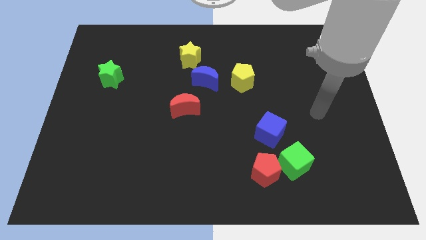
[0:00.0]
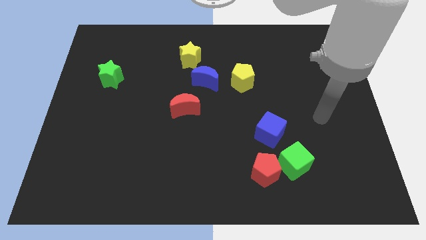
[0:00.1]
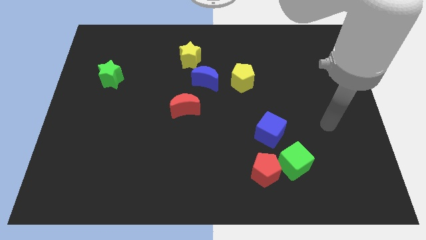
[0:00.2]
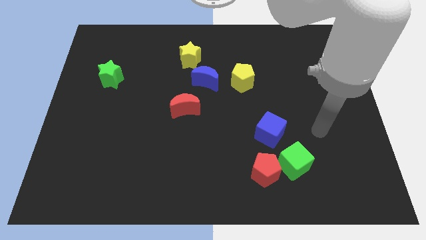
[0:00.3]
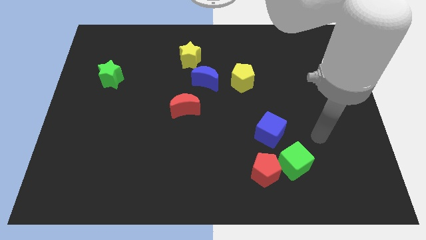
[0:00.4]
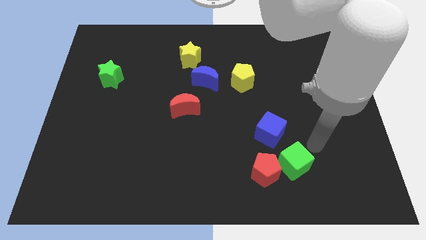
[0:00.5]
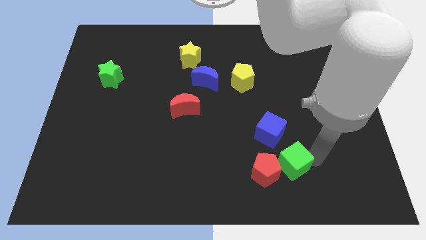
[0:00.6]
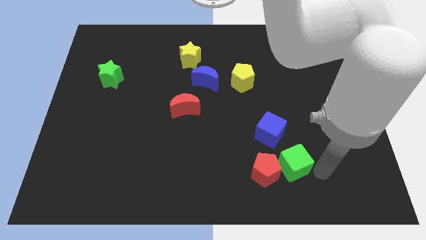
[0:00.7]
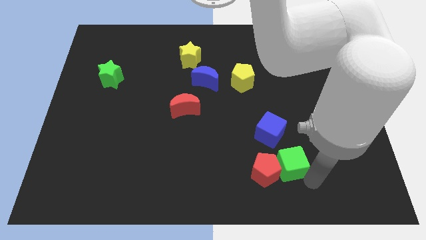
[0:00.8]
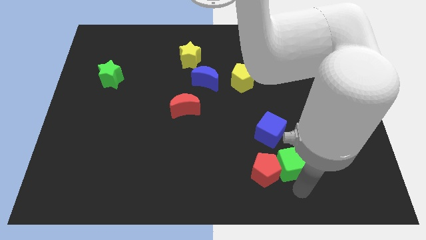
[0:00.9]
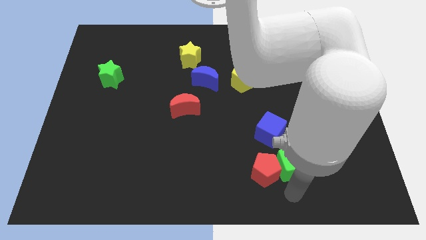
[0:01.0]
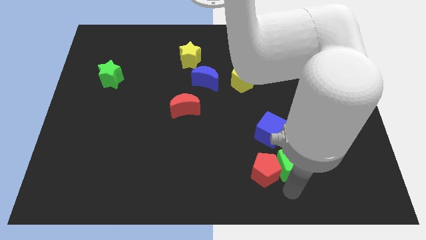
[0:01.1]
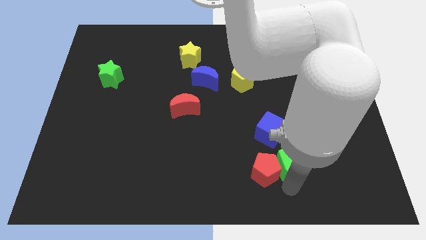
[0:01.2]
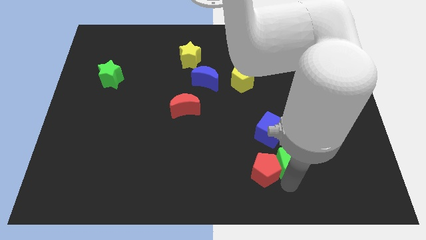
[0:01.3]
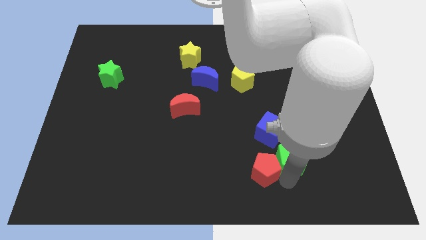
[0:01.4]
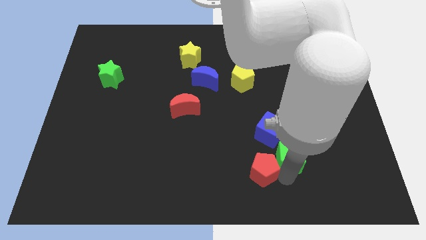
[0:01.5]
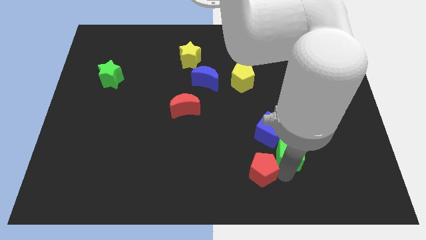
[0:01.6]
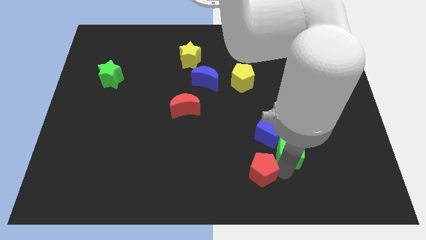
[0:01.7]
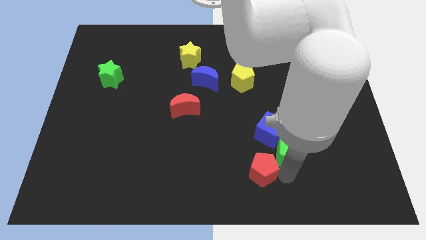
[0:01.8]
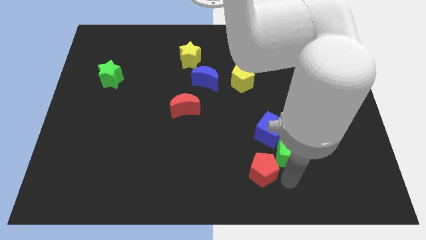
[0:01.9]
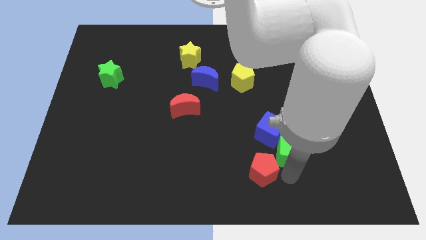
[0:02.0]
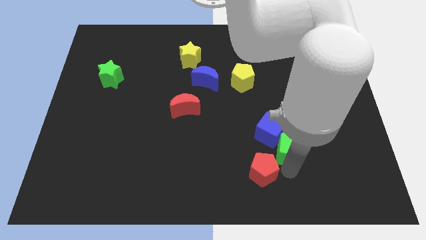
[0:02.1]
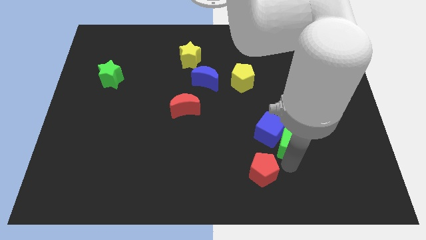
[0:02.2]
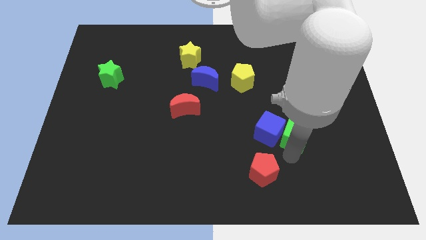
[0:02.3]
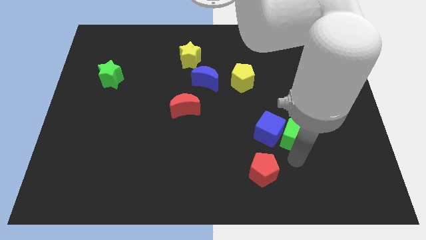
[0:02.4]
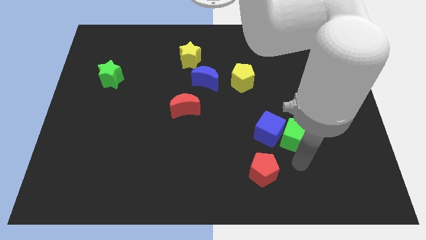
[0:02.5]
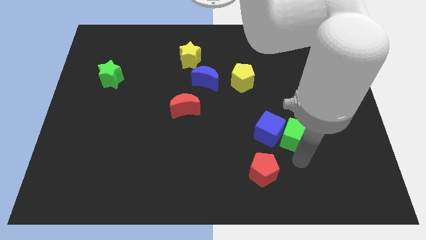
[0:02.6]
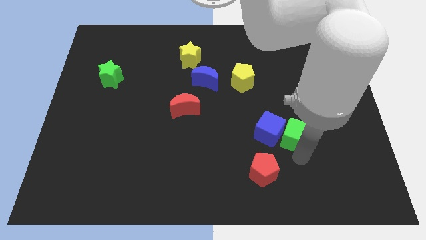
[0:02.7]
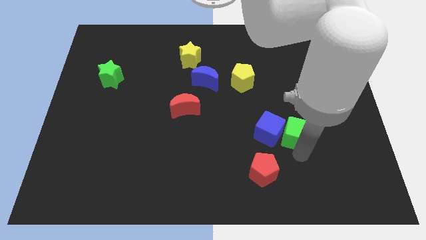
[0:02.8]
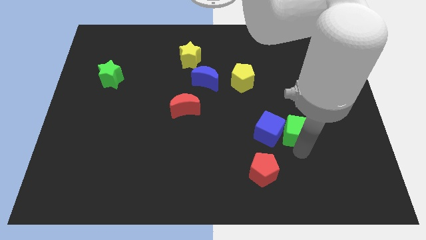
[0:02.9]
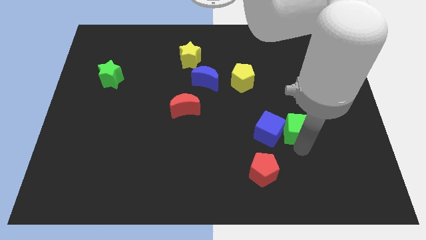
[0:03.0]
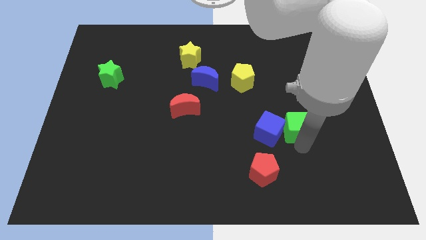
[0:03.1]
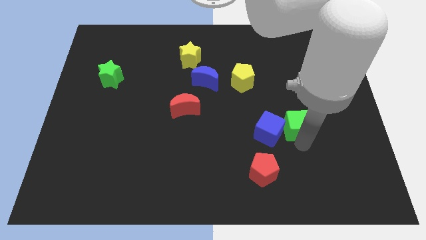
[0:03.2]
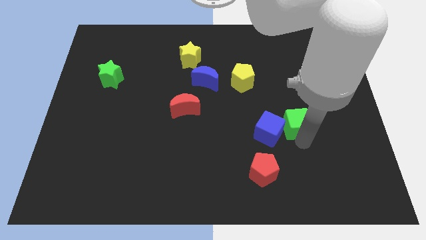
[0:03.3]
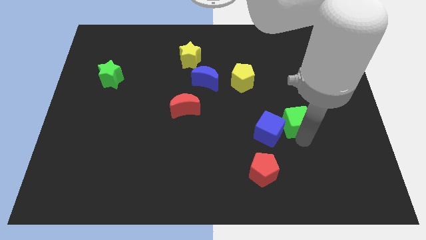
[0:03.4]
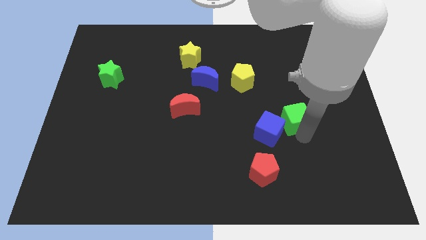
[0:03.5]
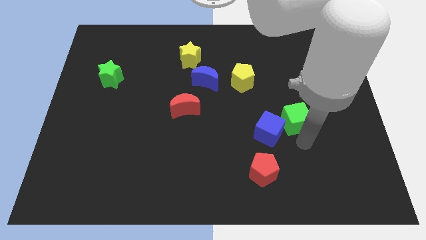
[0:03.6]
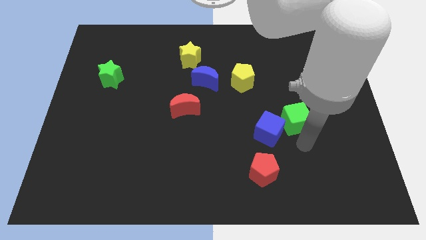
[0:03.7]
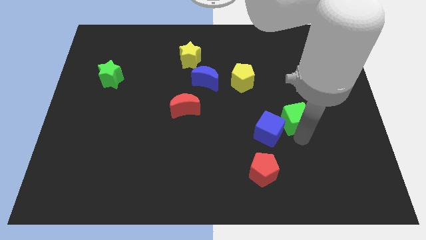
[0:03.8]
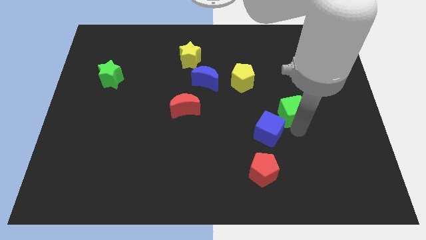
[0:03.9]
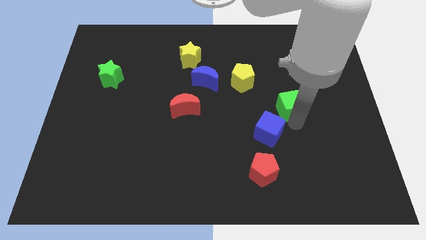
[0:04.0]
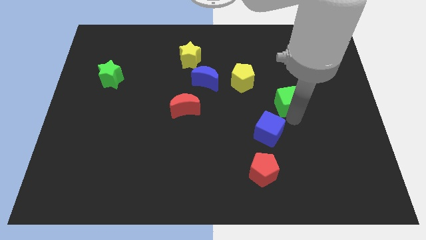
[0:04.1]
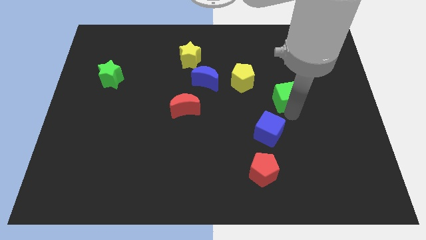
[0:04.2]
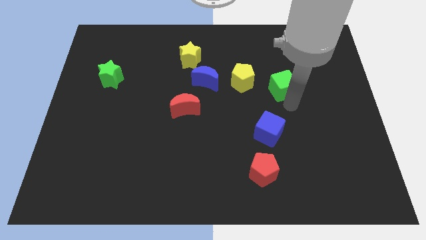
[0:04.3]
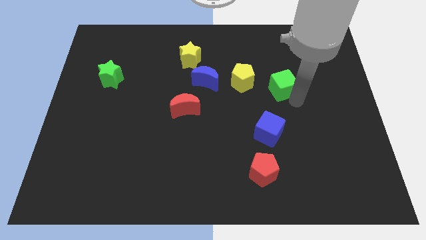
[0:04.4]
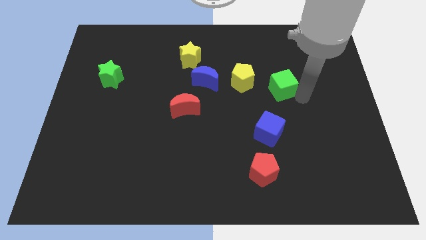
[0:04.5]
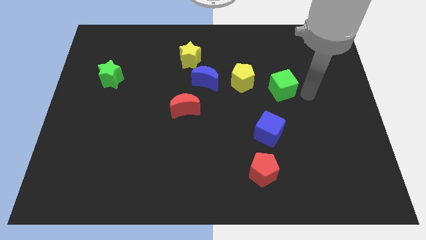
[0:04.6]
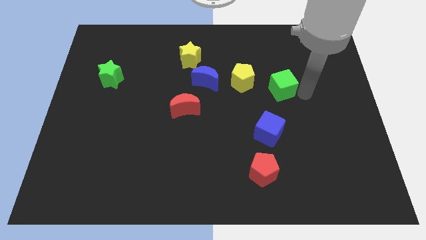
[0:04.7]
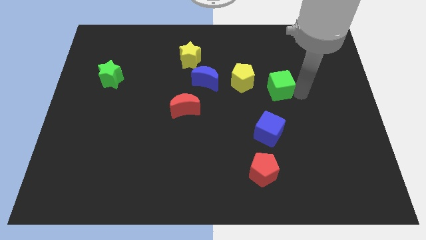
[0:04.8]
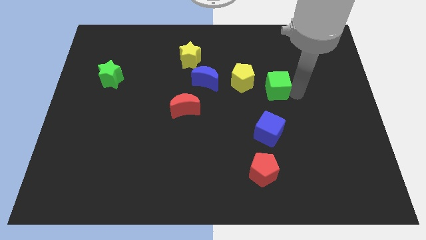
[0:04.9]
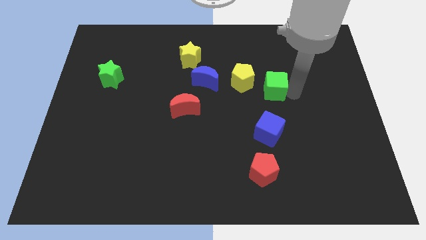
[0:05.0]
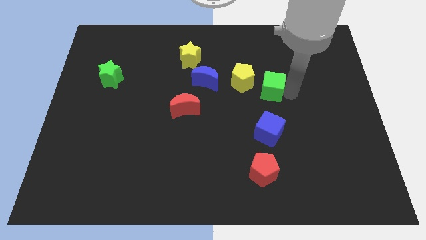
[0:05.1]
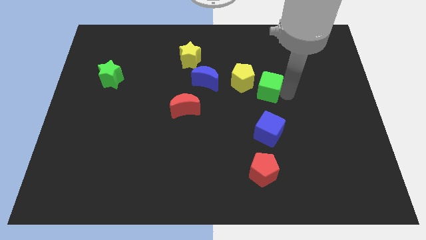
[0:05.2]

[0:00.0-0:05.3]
move the green cube just right of the blue moon

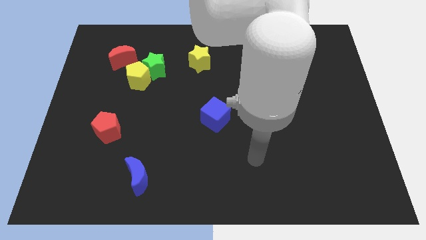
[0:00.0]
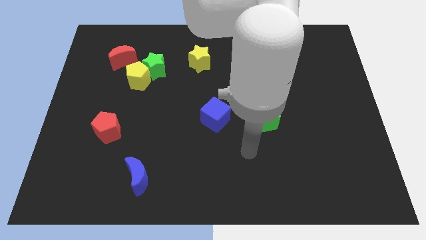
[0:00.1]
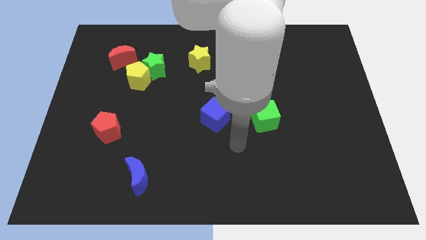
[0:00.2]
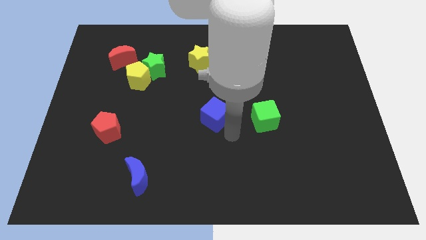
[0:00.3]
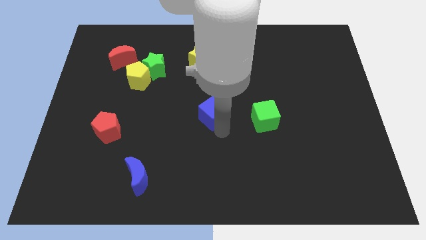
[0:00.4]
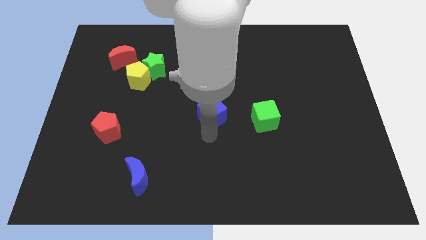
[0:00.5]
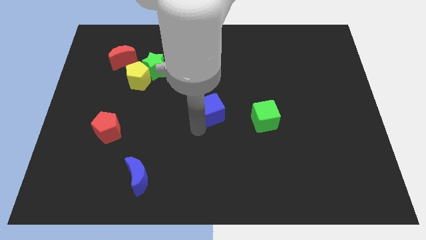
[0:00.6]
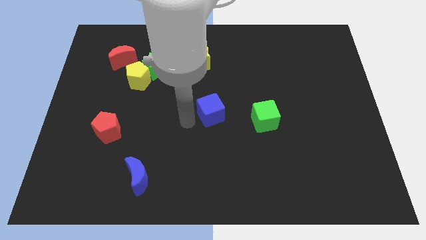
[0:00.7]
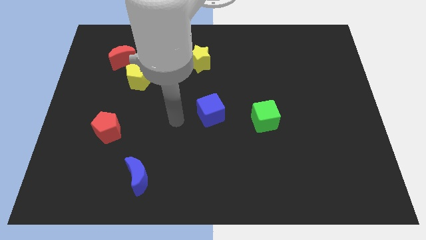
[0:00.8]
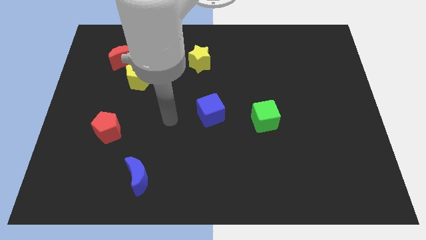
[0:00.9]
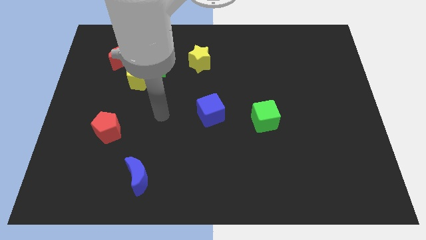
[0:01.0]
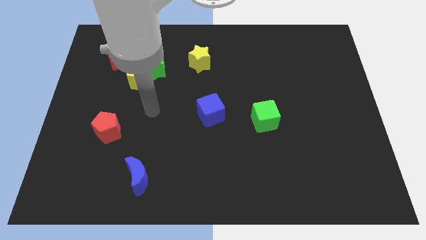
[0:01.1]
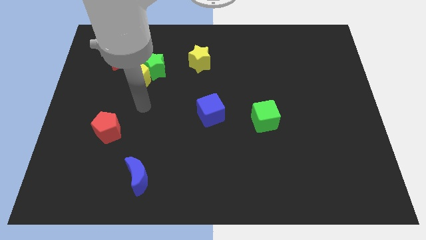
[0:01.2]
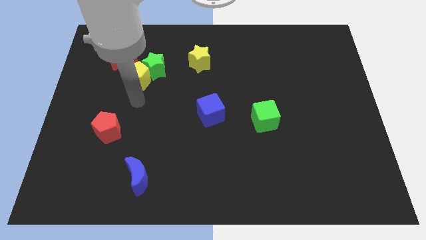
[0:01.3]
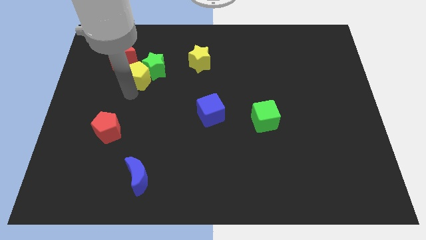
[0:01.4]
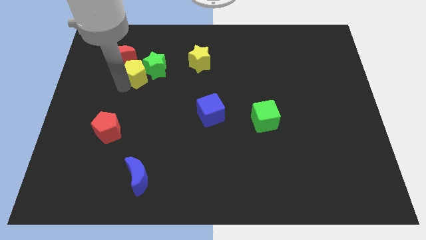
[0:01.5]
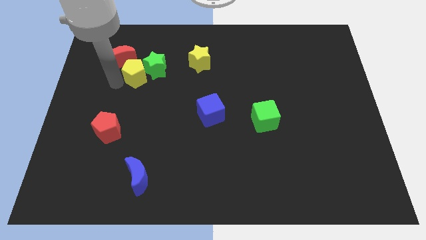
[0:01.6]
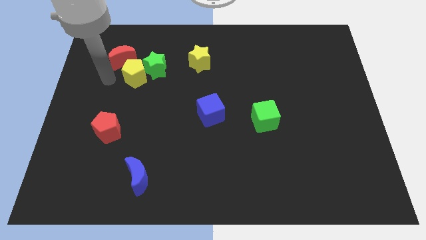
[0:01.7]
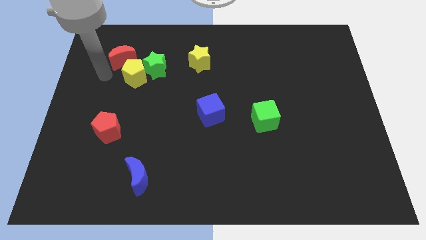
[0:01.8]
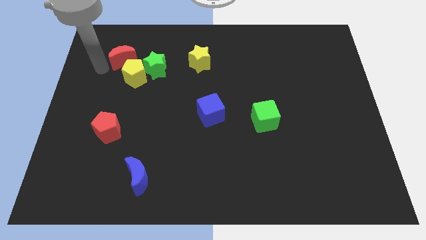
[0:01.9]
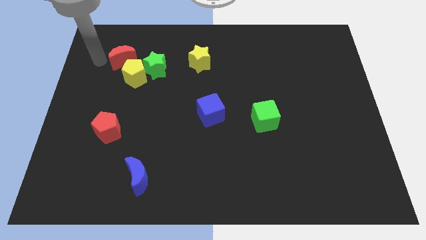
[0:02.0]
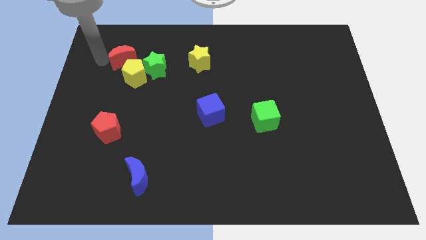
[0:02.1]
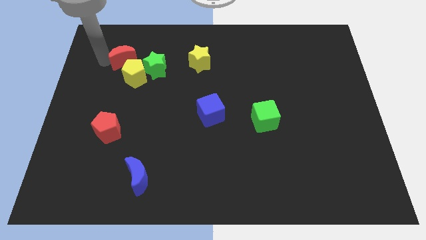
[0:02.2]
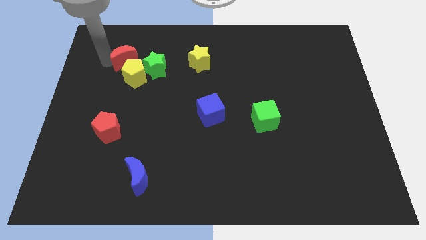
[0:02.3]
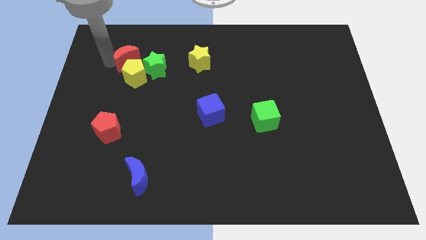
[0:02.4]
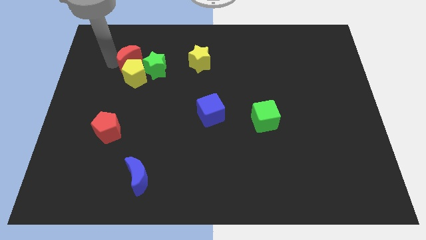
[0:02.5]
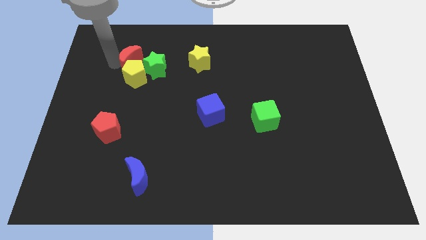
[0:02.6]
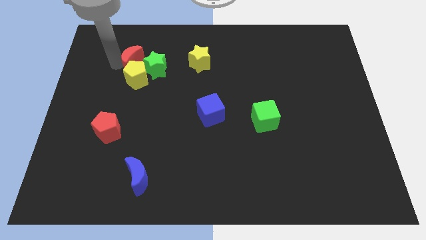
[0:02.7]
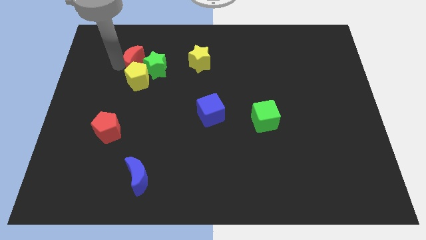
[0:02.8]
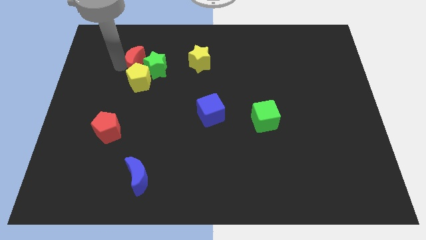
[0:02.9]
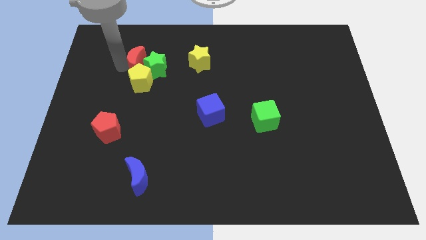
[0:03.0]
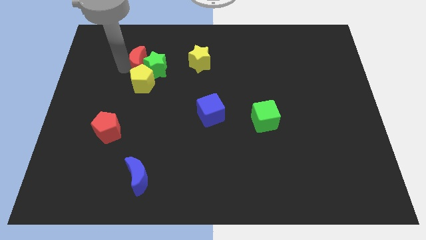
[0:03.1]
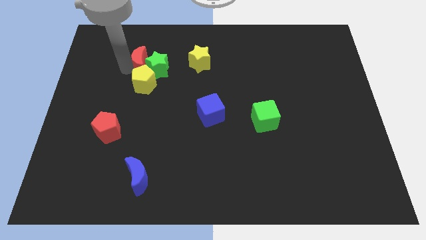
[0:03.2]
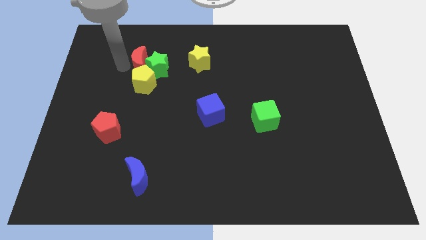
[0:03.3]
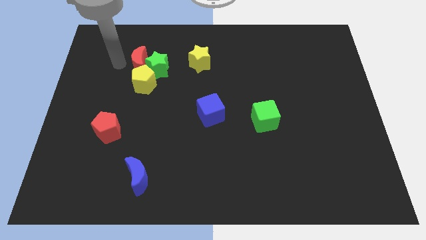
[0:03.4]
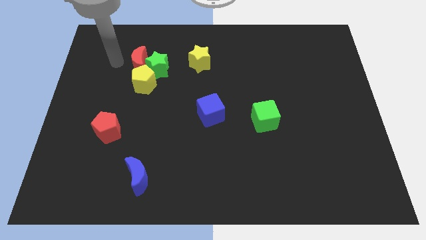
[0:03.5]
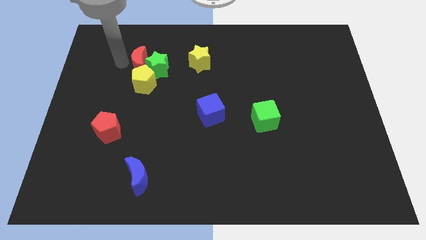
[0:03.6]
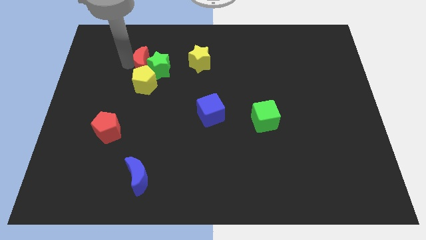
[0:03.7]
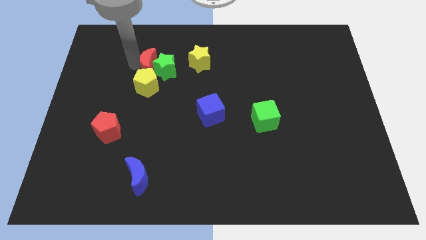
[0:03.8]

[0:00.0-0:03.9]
push the red moon to the top right side of the yellow pentagon
